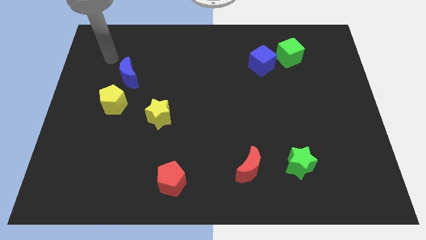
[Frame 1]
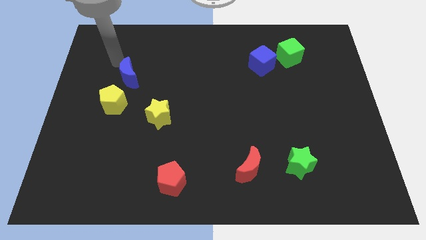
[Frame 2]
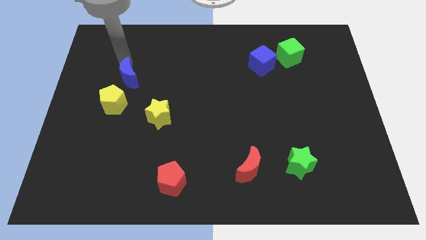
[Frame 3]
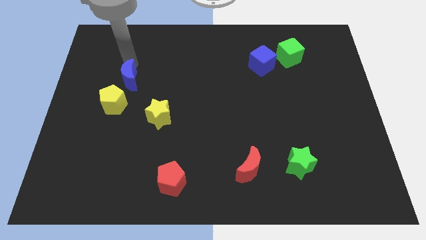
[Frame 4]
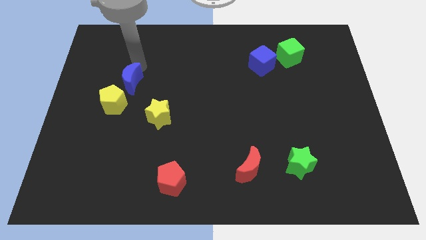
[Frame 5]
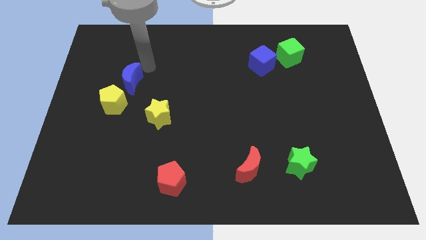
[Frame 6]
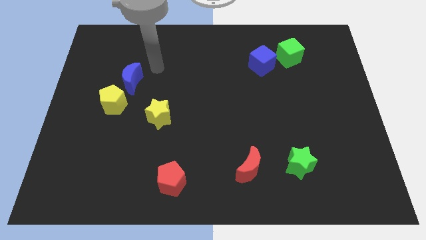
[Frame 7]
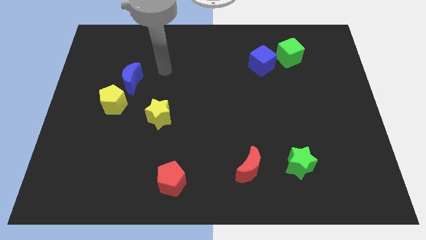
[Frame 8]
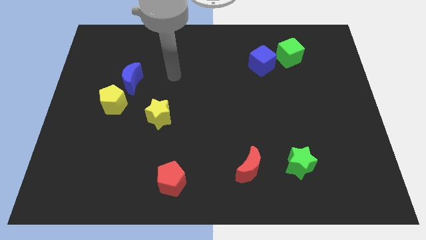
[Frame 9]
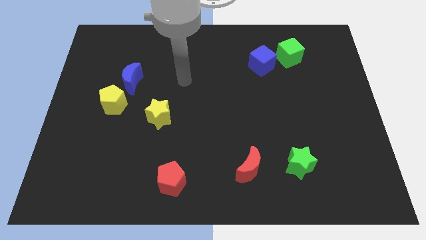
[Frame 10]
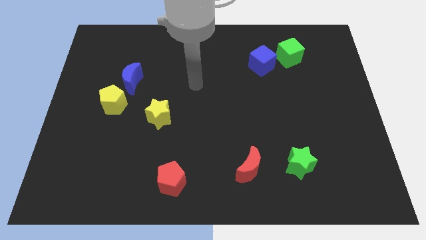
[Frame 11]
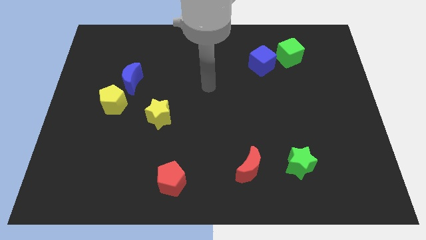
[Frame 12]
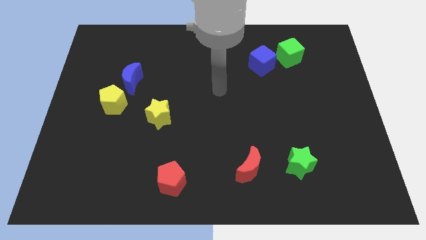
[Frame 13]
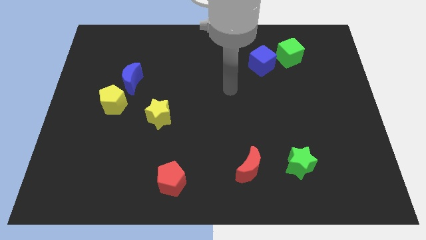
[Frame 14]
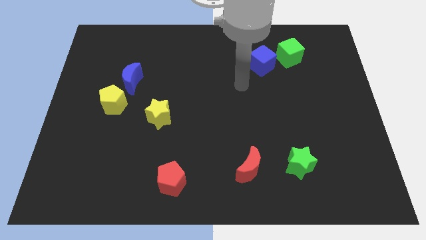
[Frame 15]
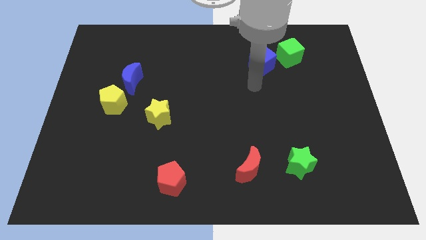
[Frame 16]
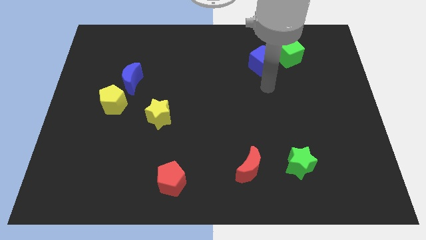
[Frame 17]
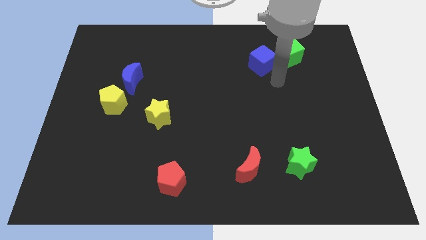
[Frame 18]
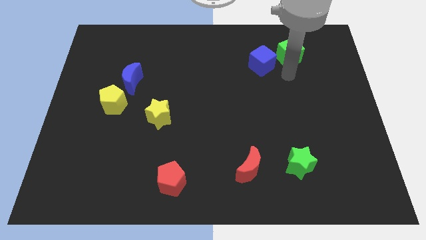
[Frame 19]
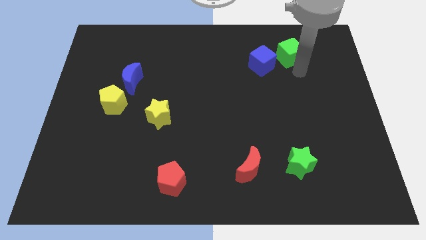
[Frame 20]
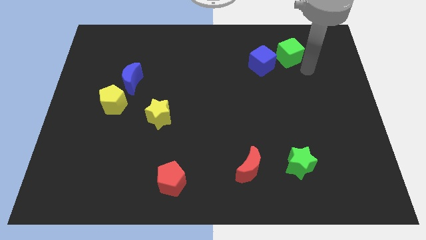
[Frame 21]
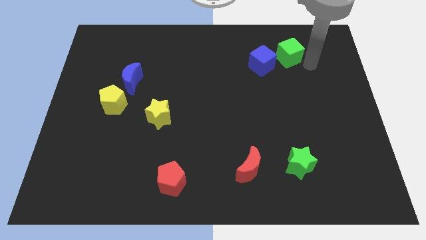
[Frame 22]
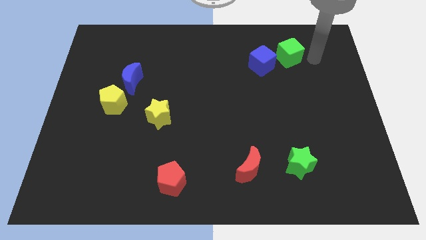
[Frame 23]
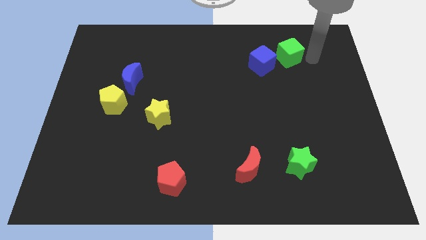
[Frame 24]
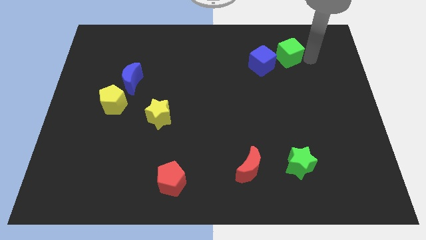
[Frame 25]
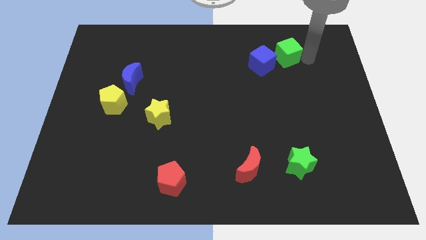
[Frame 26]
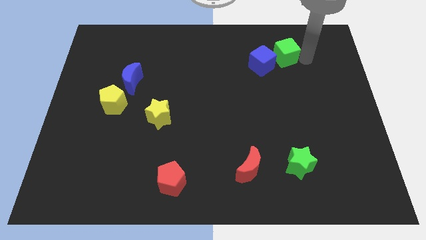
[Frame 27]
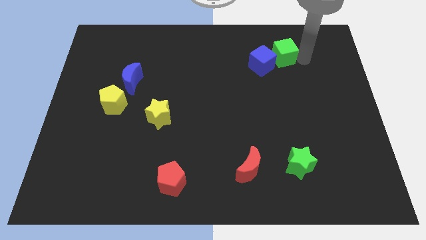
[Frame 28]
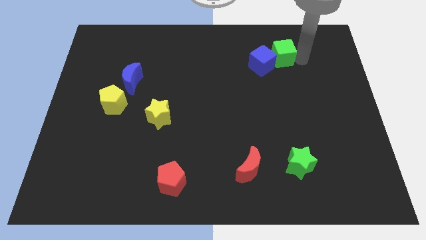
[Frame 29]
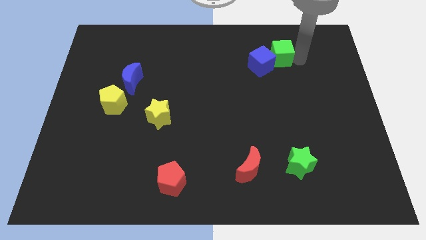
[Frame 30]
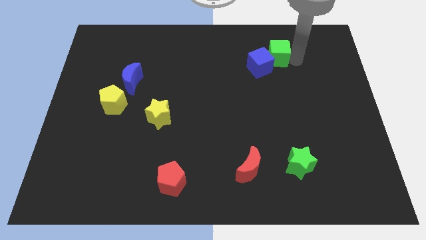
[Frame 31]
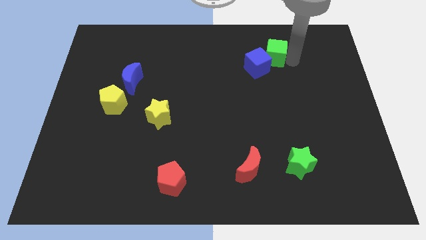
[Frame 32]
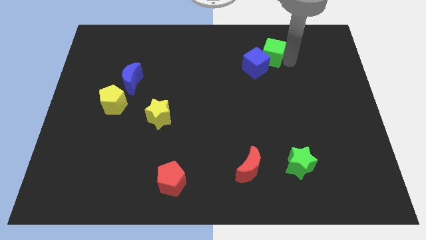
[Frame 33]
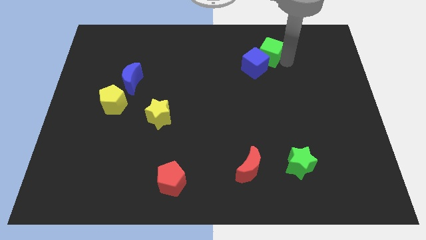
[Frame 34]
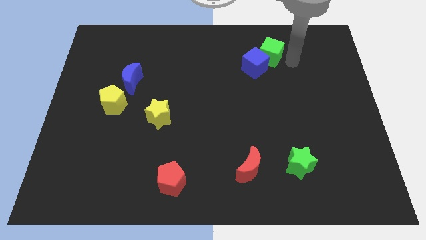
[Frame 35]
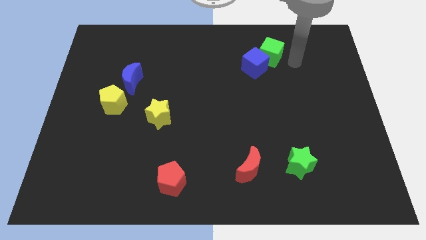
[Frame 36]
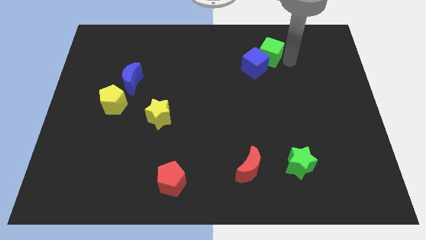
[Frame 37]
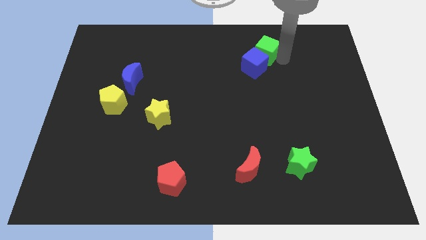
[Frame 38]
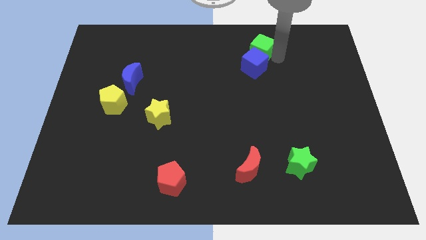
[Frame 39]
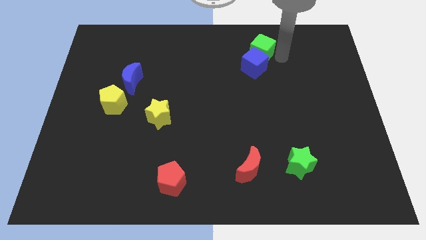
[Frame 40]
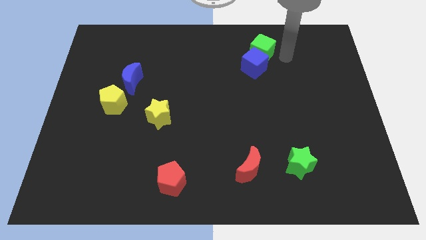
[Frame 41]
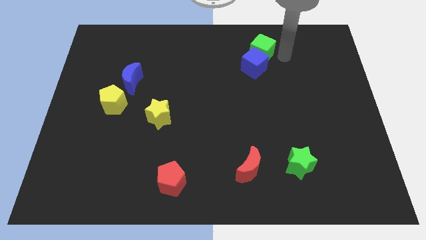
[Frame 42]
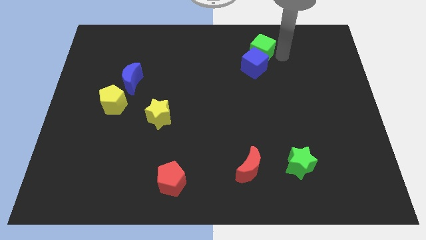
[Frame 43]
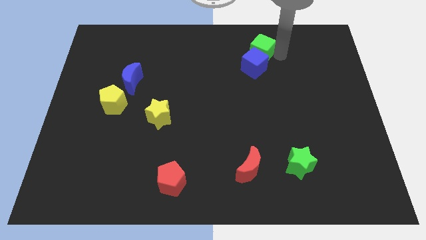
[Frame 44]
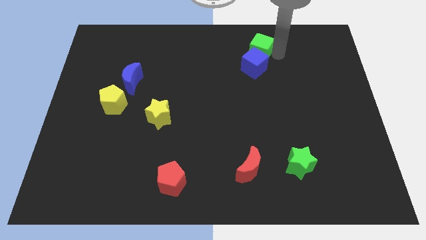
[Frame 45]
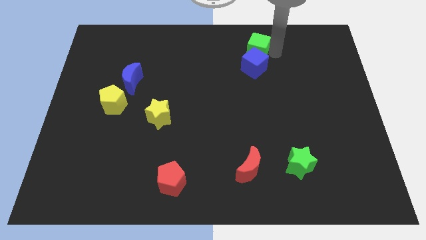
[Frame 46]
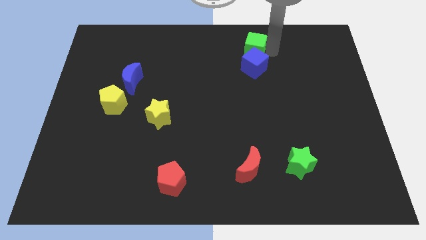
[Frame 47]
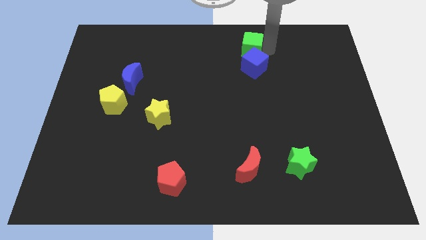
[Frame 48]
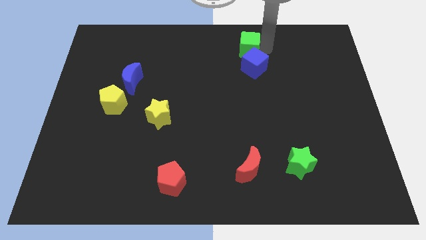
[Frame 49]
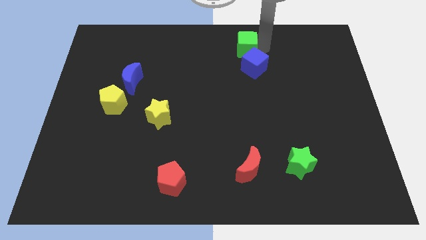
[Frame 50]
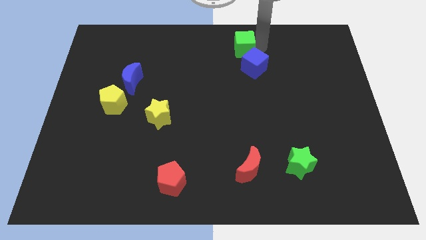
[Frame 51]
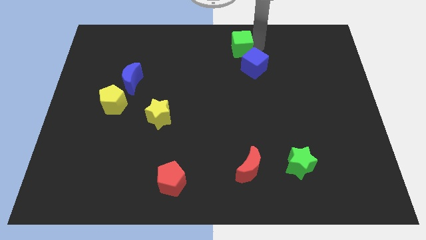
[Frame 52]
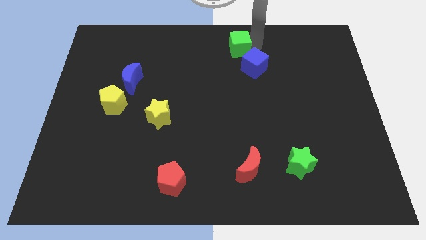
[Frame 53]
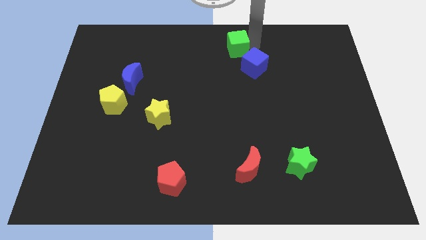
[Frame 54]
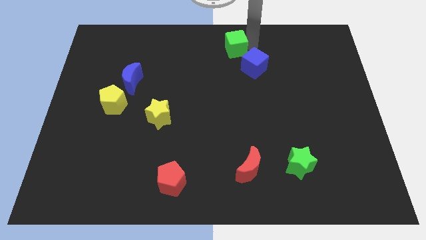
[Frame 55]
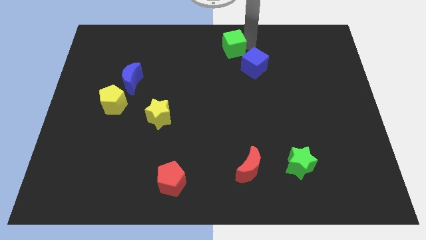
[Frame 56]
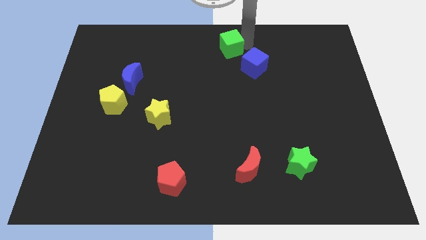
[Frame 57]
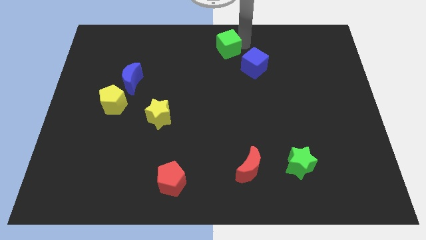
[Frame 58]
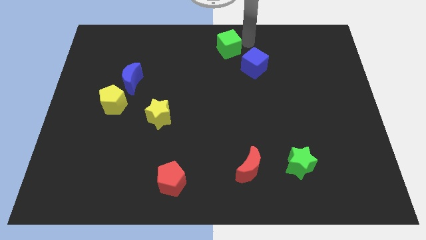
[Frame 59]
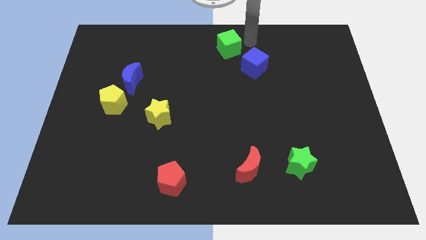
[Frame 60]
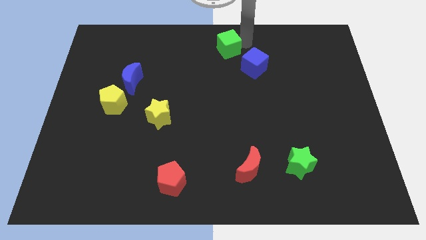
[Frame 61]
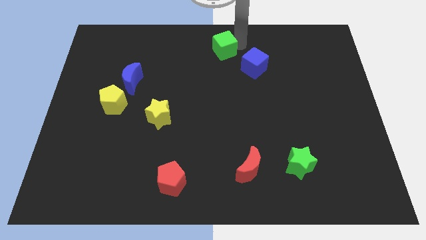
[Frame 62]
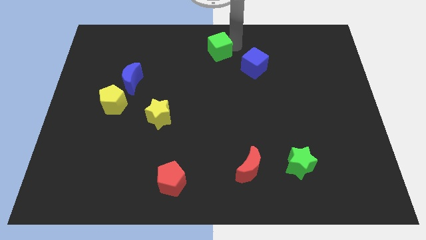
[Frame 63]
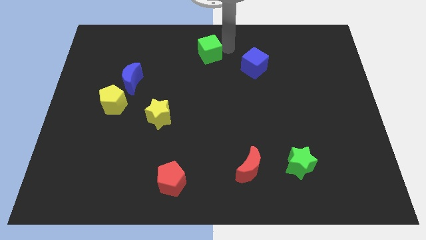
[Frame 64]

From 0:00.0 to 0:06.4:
slide the green cube left

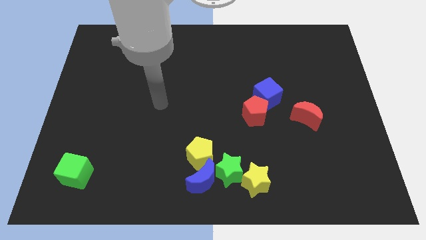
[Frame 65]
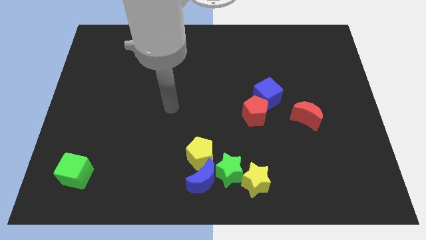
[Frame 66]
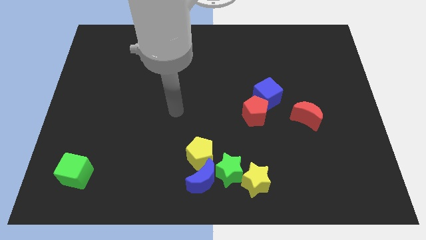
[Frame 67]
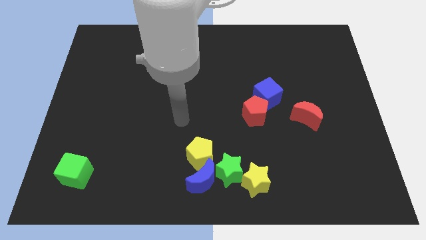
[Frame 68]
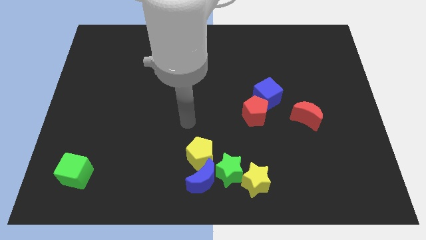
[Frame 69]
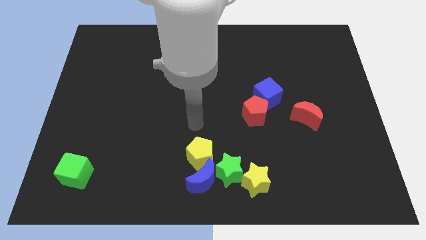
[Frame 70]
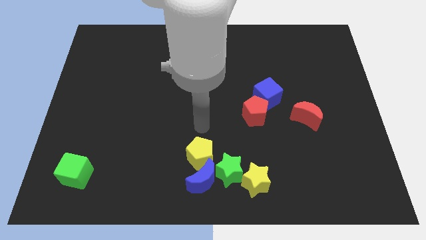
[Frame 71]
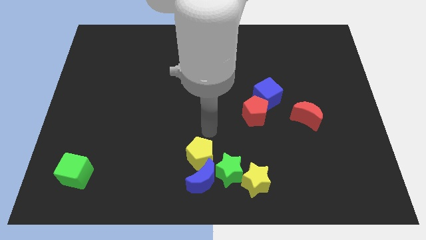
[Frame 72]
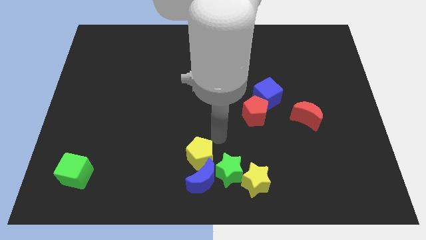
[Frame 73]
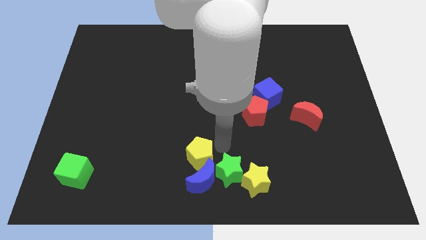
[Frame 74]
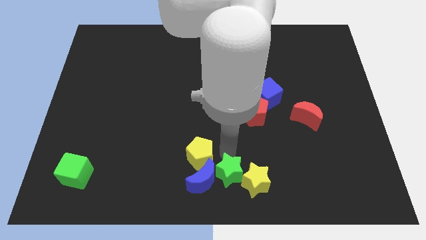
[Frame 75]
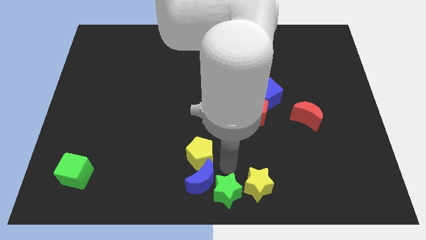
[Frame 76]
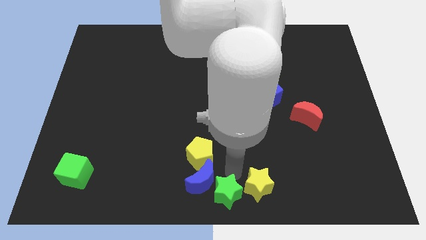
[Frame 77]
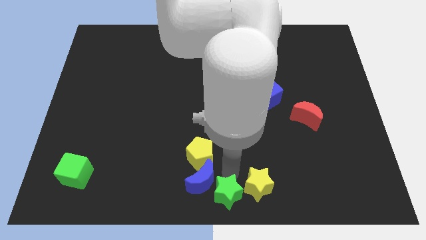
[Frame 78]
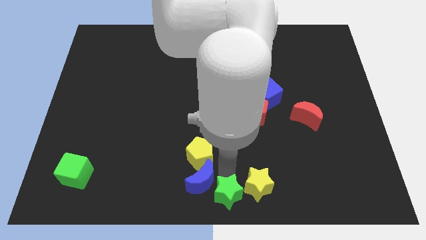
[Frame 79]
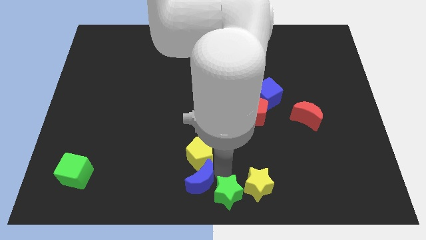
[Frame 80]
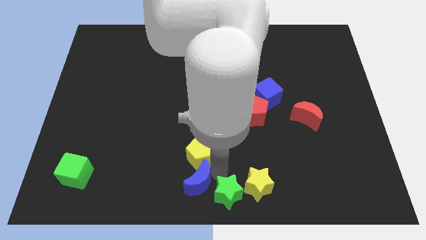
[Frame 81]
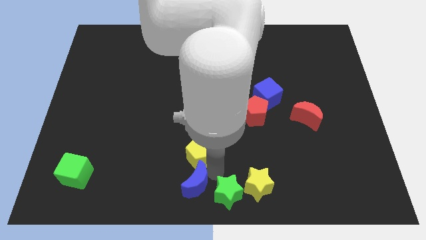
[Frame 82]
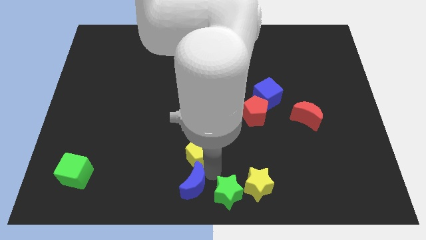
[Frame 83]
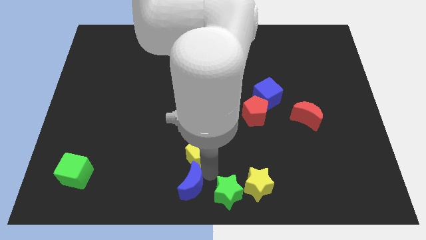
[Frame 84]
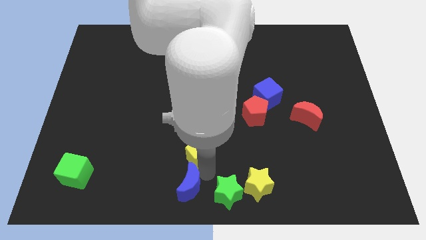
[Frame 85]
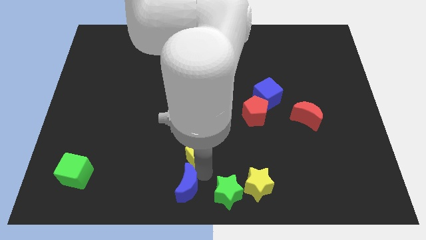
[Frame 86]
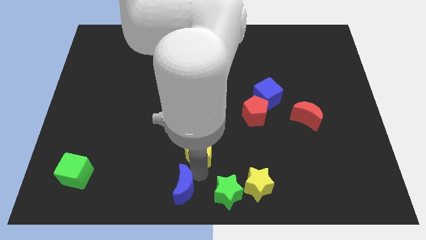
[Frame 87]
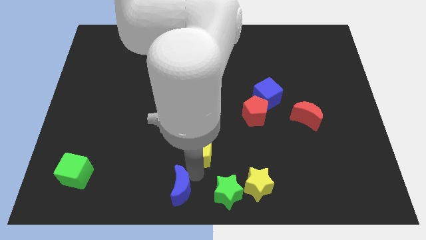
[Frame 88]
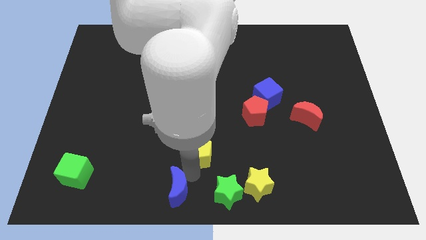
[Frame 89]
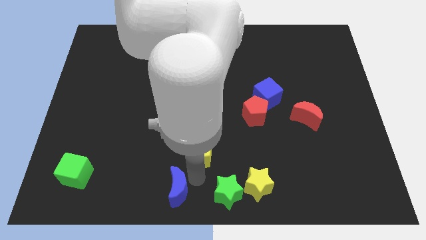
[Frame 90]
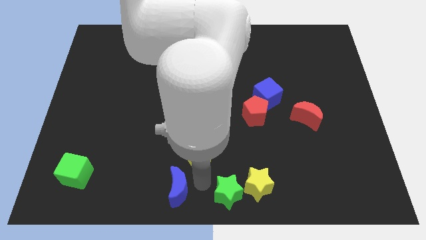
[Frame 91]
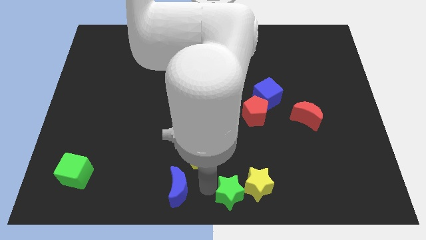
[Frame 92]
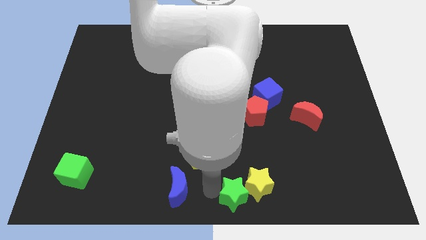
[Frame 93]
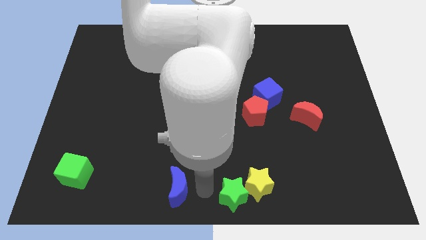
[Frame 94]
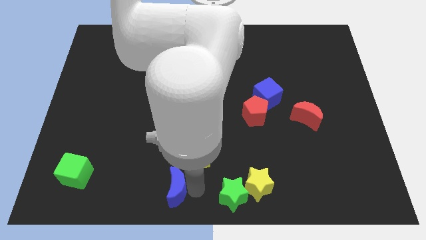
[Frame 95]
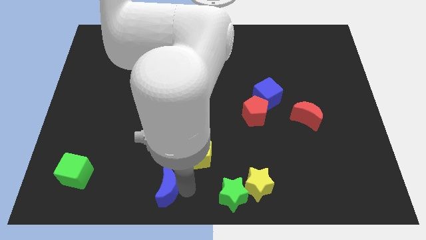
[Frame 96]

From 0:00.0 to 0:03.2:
slightly slide the blue moon left
